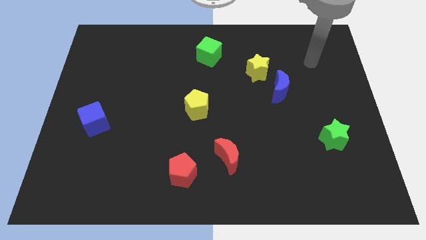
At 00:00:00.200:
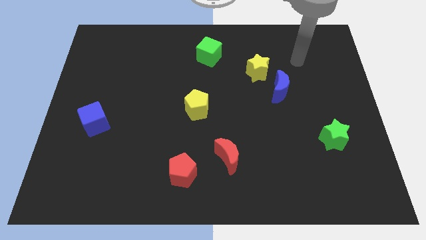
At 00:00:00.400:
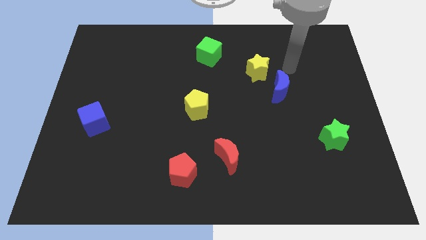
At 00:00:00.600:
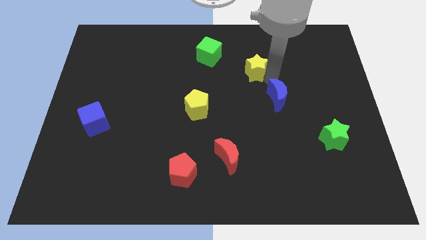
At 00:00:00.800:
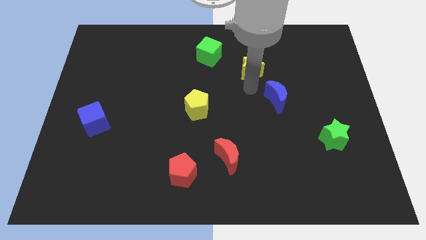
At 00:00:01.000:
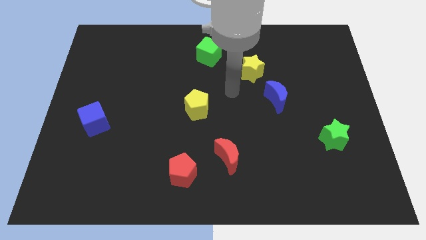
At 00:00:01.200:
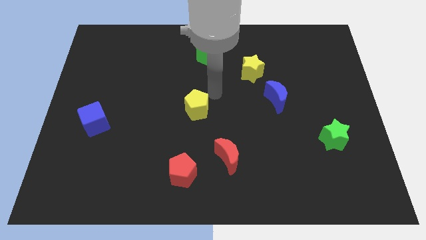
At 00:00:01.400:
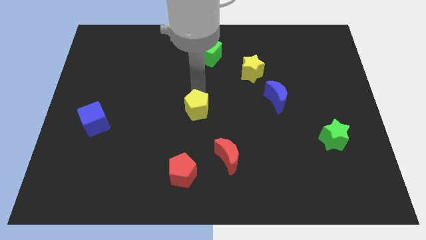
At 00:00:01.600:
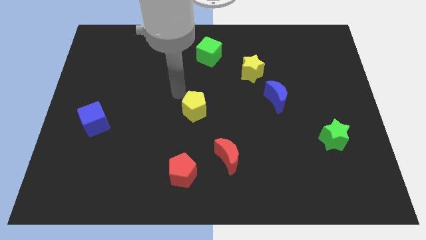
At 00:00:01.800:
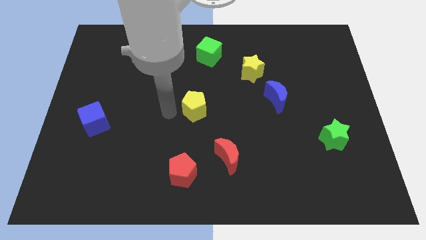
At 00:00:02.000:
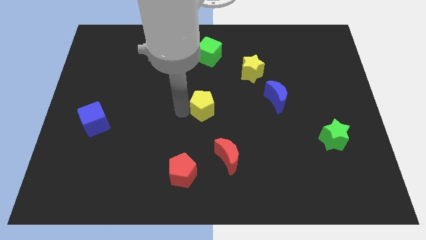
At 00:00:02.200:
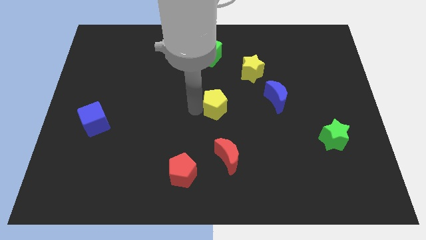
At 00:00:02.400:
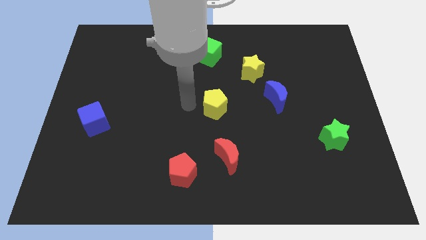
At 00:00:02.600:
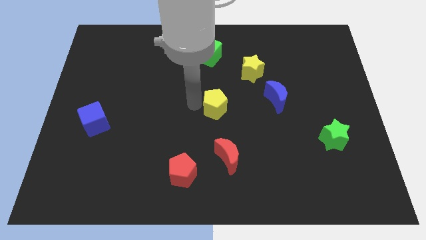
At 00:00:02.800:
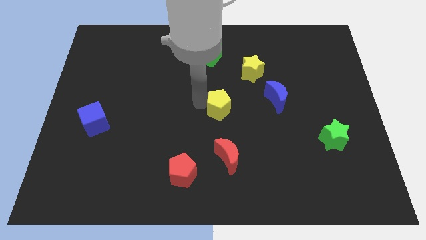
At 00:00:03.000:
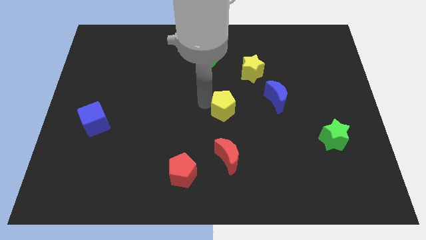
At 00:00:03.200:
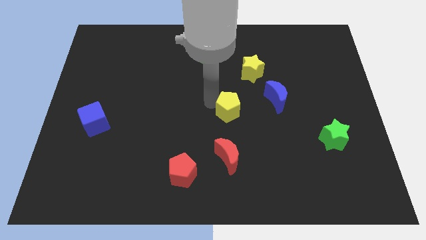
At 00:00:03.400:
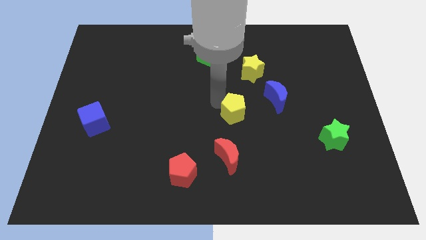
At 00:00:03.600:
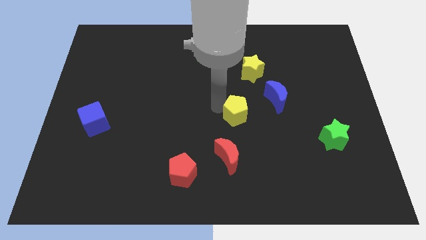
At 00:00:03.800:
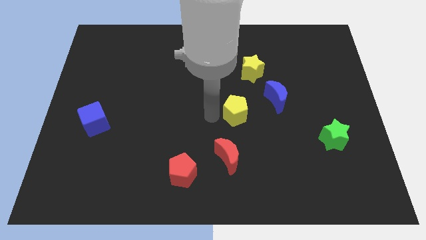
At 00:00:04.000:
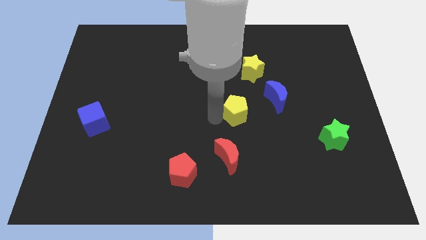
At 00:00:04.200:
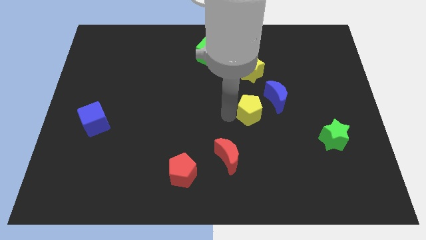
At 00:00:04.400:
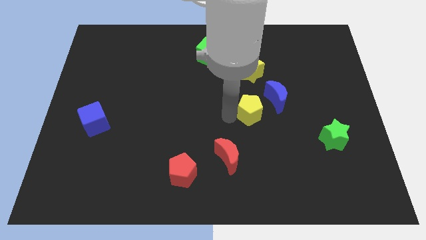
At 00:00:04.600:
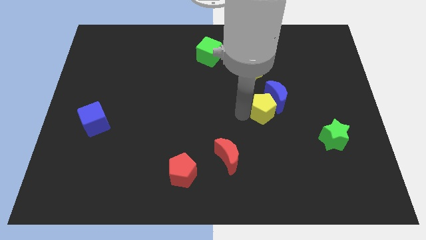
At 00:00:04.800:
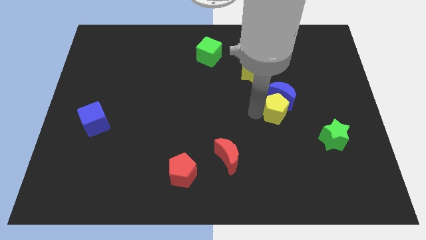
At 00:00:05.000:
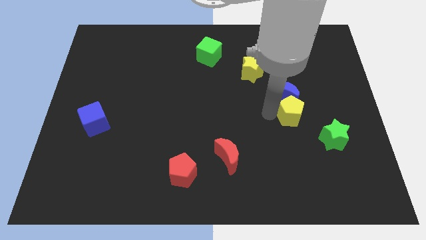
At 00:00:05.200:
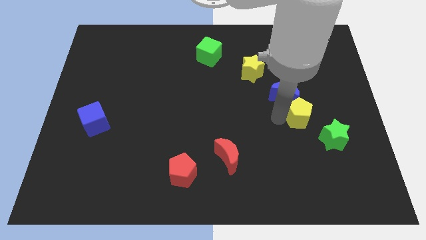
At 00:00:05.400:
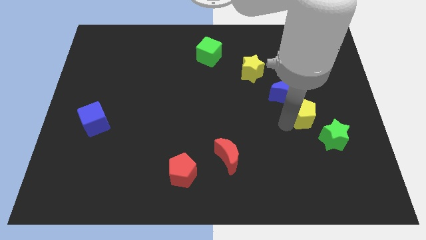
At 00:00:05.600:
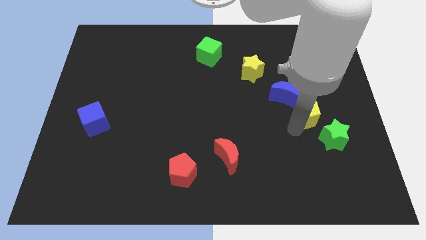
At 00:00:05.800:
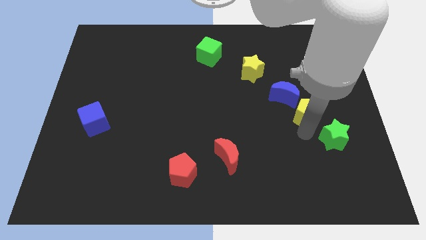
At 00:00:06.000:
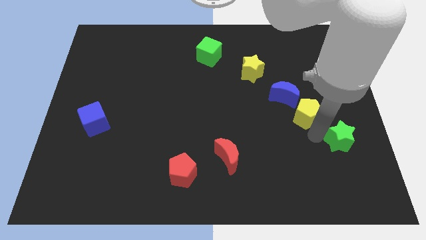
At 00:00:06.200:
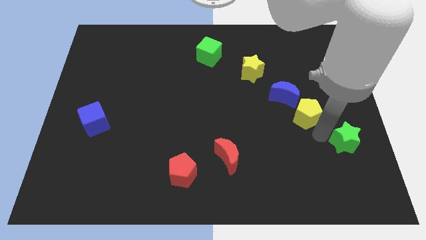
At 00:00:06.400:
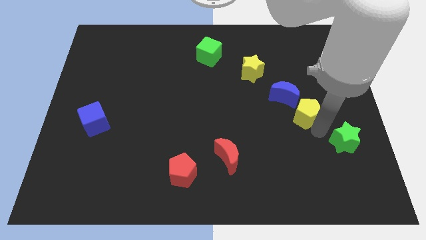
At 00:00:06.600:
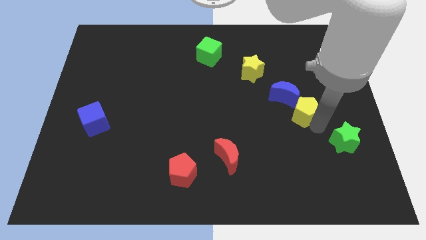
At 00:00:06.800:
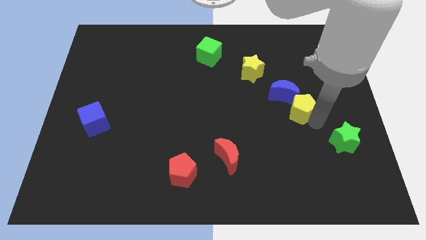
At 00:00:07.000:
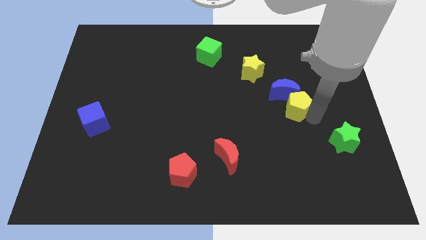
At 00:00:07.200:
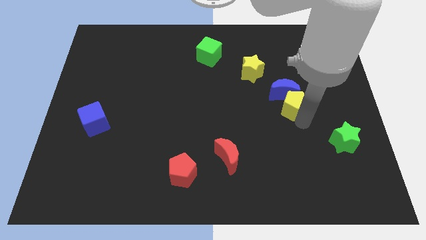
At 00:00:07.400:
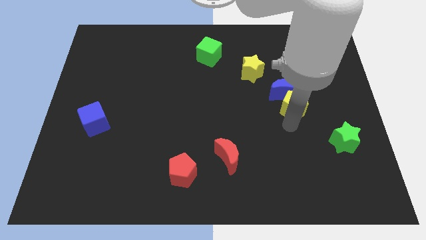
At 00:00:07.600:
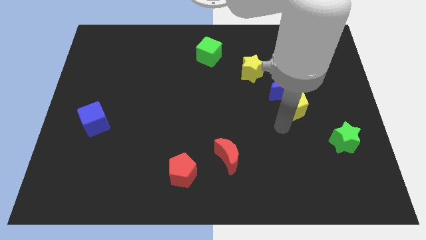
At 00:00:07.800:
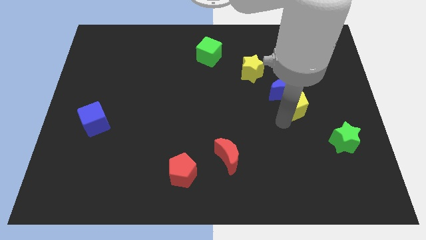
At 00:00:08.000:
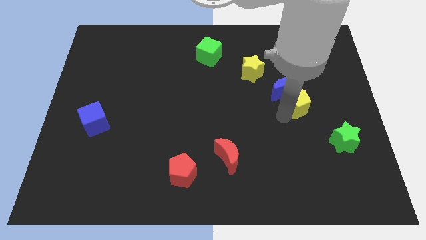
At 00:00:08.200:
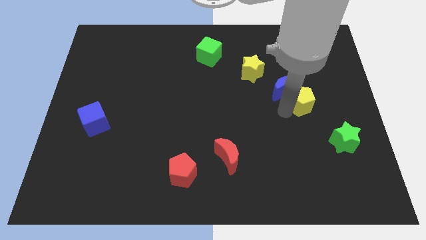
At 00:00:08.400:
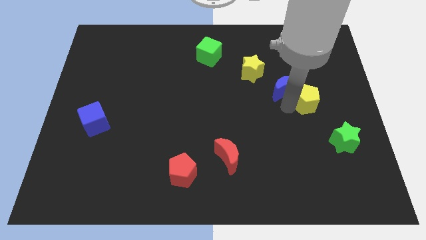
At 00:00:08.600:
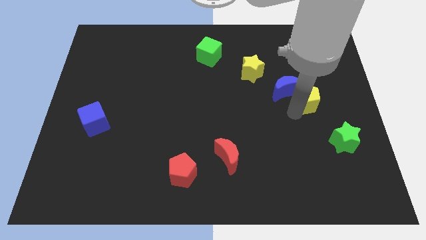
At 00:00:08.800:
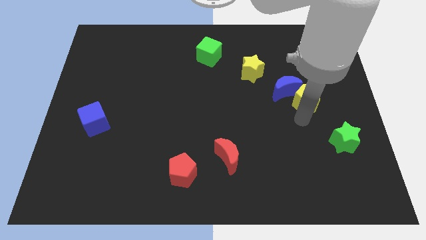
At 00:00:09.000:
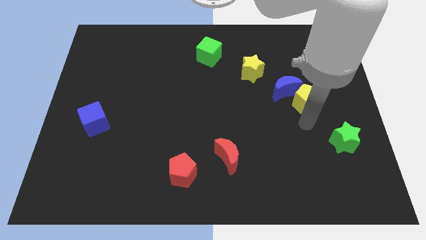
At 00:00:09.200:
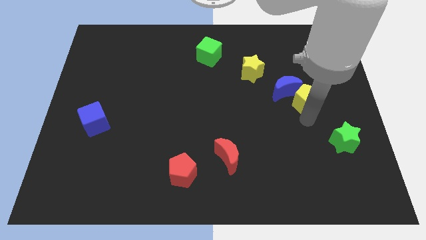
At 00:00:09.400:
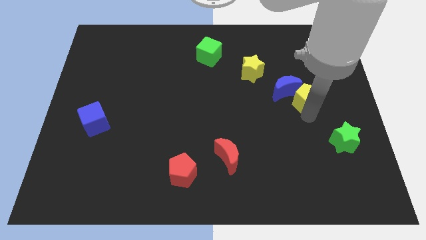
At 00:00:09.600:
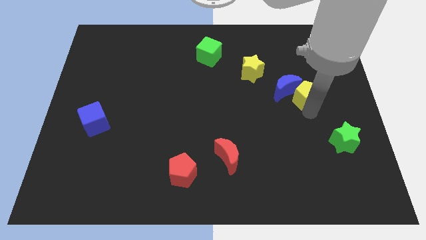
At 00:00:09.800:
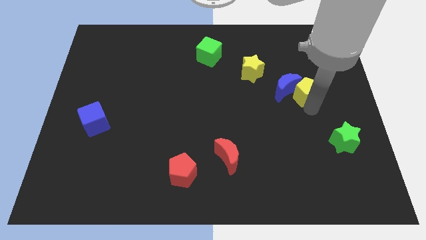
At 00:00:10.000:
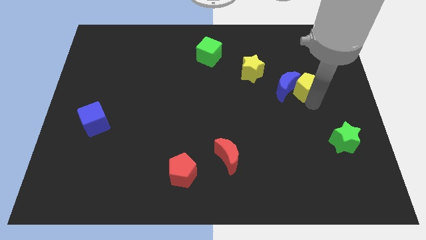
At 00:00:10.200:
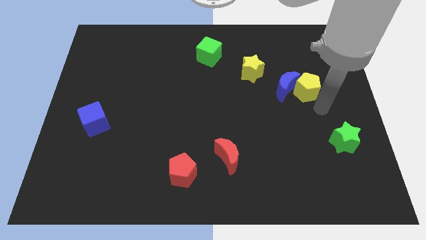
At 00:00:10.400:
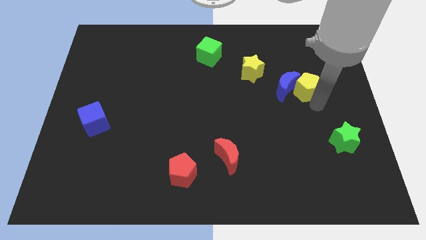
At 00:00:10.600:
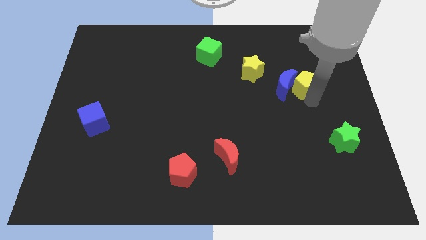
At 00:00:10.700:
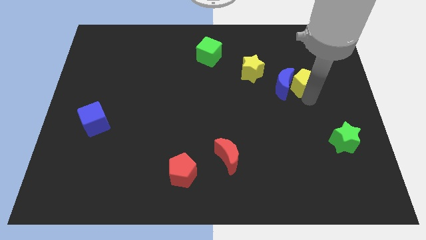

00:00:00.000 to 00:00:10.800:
slide the yellow pentagon right of the yellow star

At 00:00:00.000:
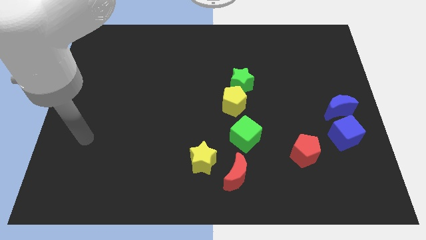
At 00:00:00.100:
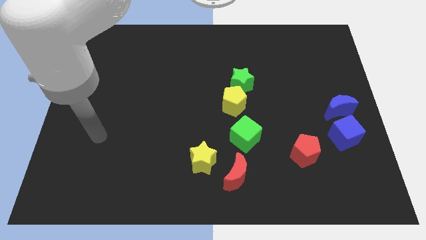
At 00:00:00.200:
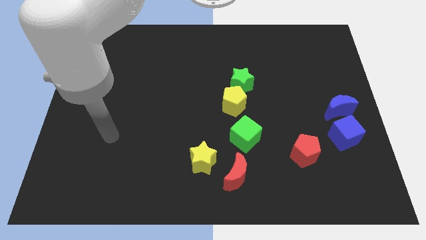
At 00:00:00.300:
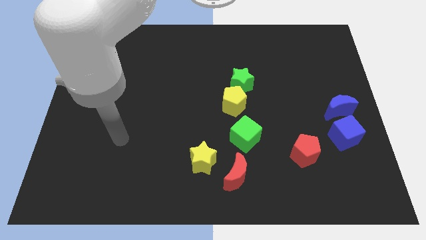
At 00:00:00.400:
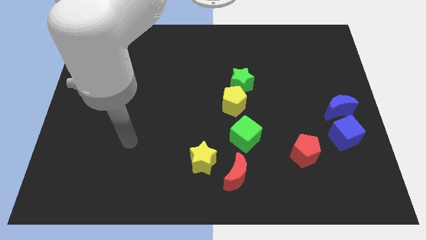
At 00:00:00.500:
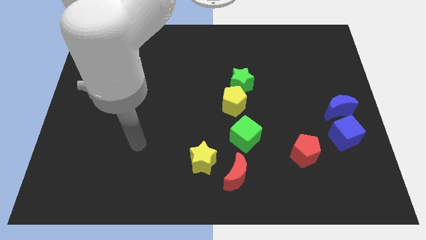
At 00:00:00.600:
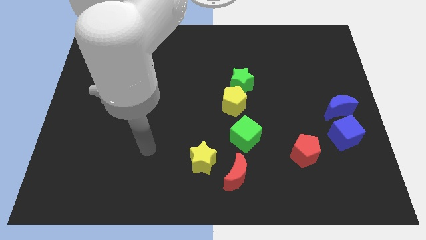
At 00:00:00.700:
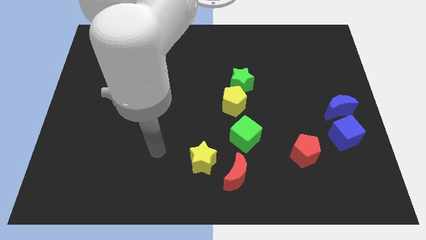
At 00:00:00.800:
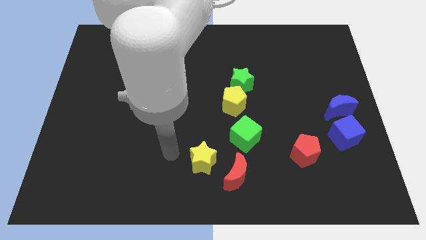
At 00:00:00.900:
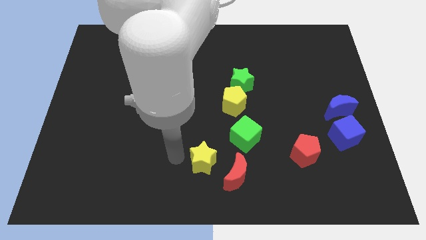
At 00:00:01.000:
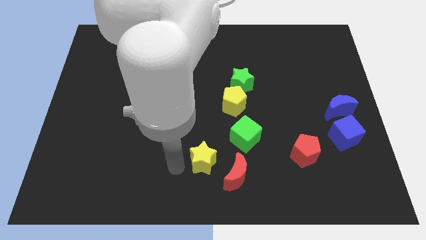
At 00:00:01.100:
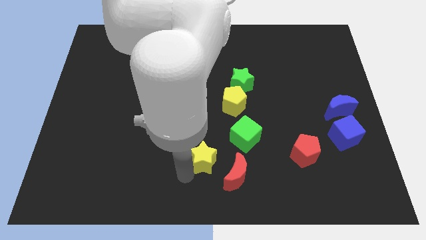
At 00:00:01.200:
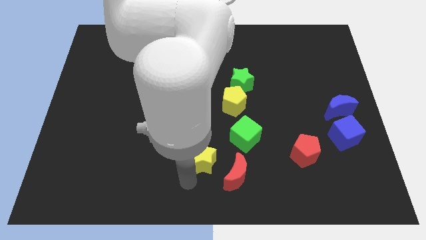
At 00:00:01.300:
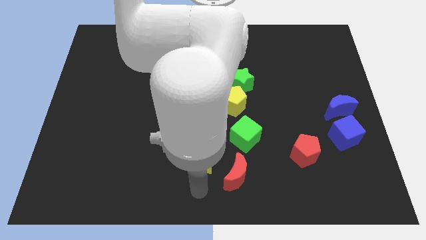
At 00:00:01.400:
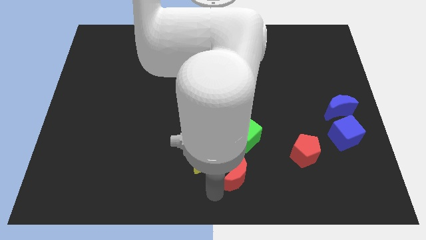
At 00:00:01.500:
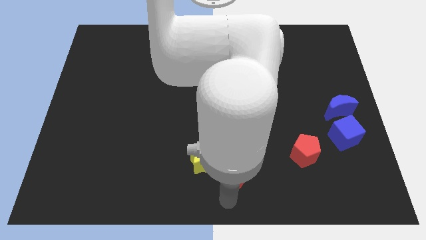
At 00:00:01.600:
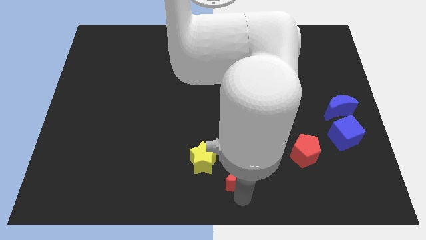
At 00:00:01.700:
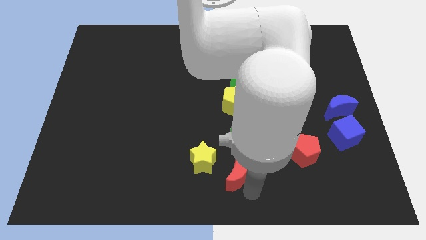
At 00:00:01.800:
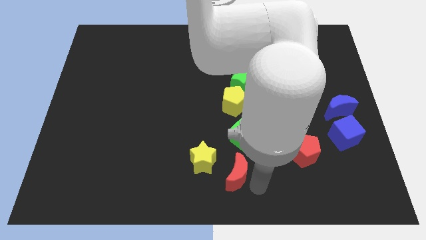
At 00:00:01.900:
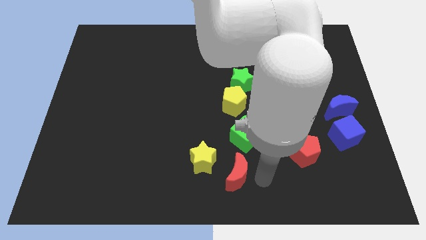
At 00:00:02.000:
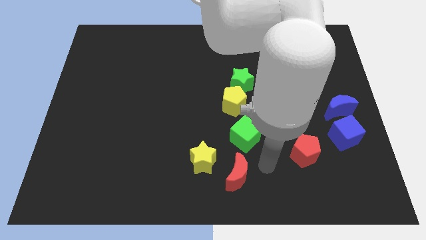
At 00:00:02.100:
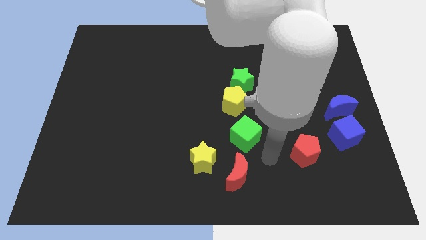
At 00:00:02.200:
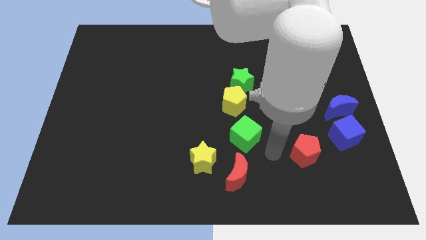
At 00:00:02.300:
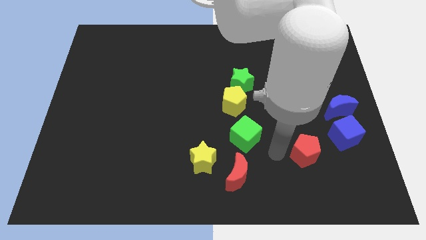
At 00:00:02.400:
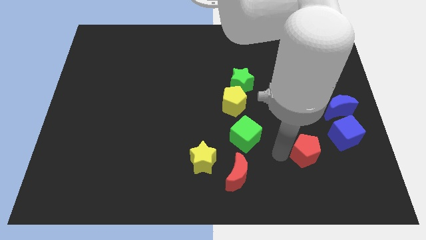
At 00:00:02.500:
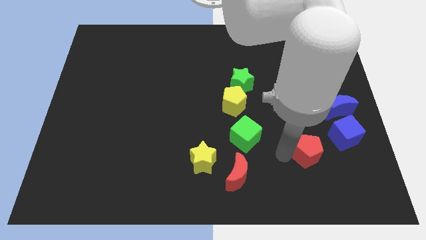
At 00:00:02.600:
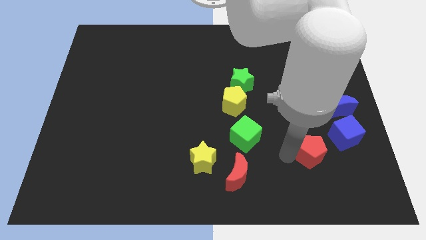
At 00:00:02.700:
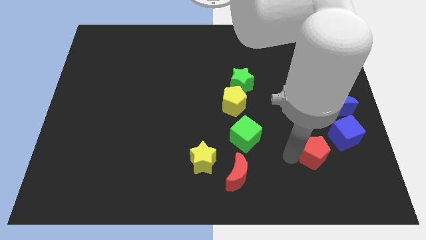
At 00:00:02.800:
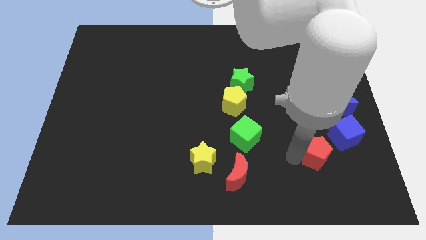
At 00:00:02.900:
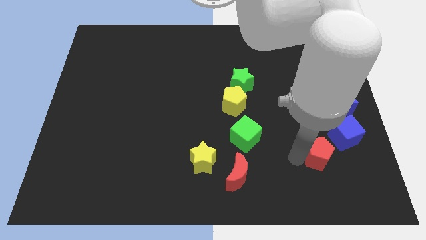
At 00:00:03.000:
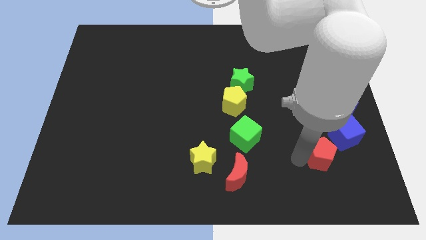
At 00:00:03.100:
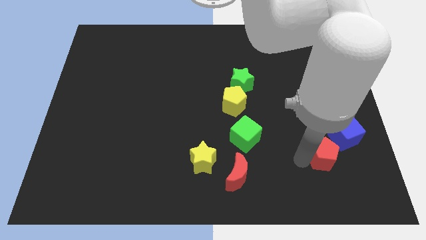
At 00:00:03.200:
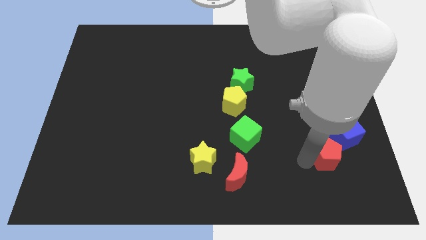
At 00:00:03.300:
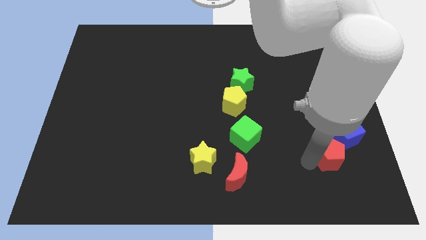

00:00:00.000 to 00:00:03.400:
slide the red pentagon below the blue moon
